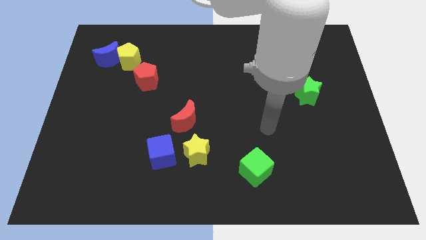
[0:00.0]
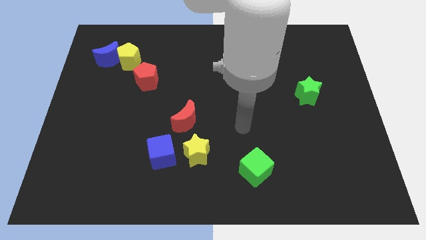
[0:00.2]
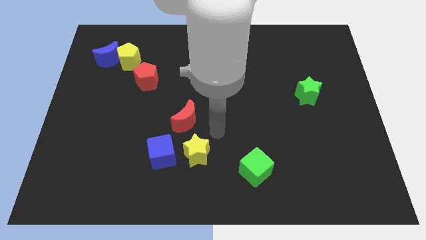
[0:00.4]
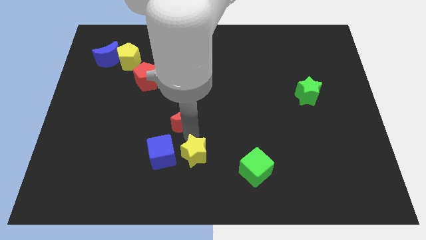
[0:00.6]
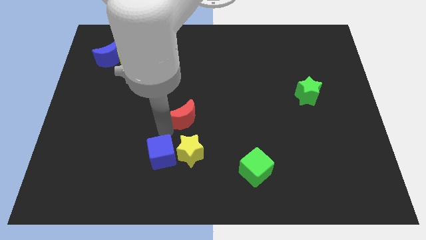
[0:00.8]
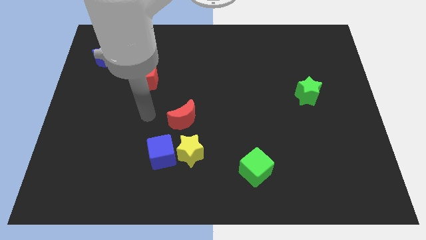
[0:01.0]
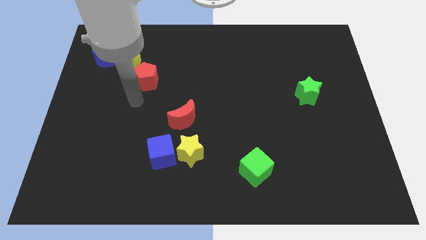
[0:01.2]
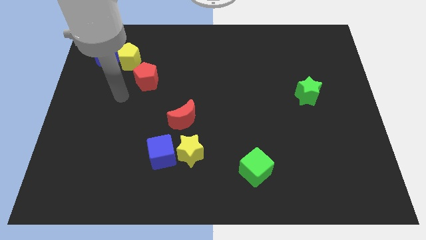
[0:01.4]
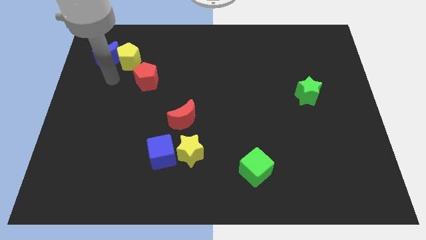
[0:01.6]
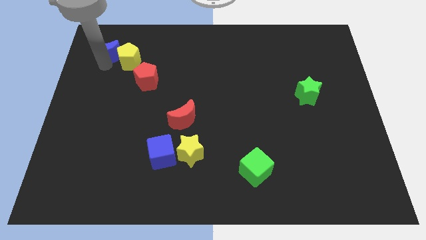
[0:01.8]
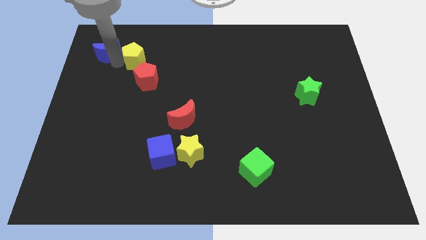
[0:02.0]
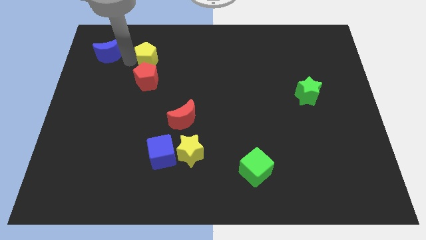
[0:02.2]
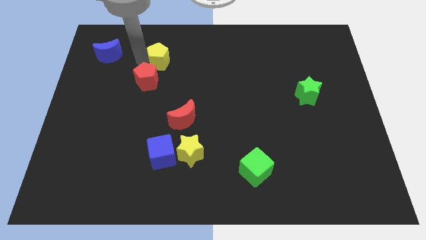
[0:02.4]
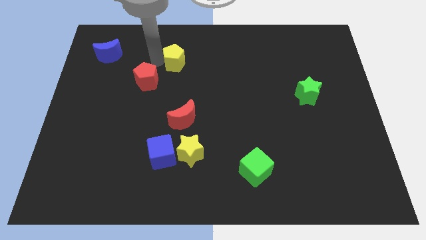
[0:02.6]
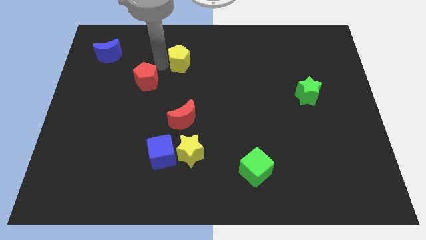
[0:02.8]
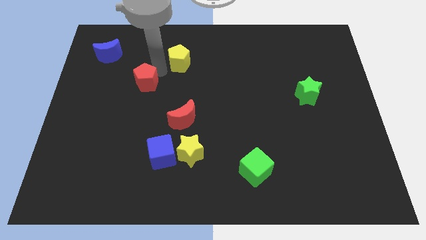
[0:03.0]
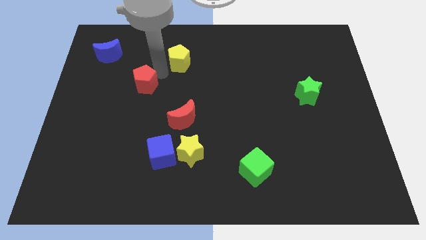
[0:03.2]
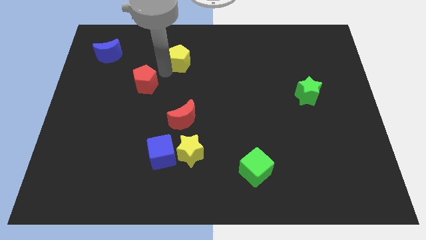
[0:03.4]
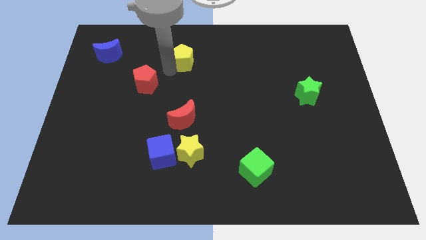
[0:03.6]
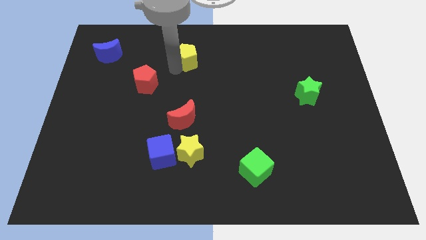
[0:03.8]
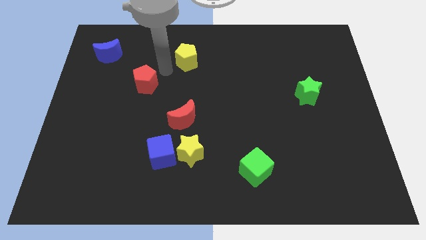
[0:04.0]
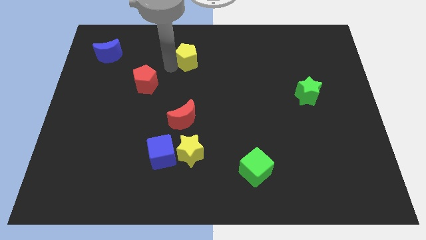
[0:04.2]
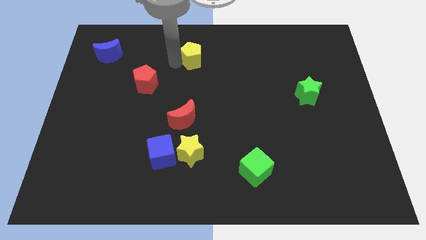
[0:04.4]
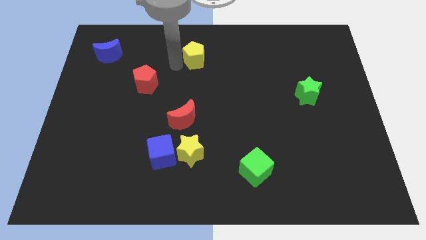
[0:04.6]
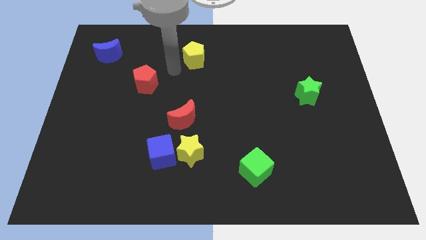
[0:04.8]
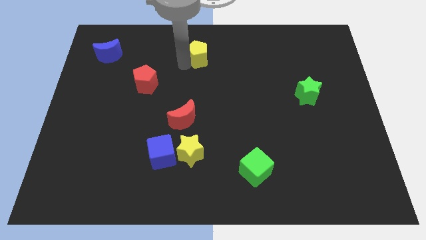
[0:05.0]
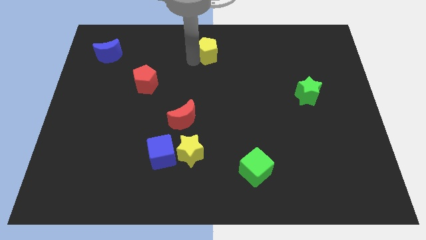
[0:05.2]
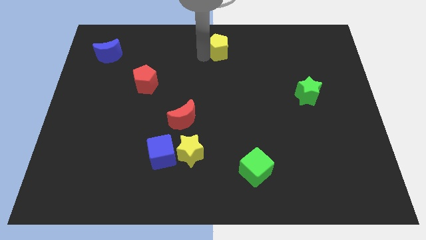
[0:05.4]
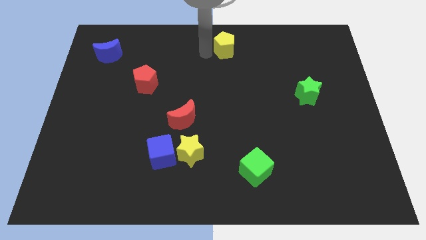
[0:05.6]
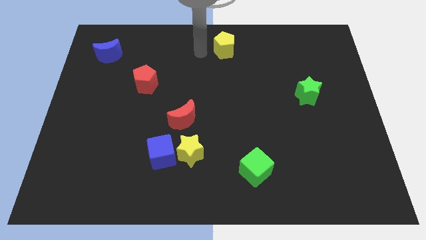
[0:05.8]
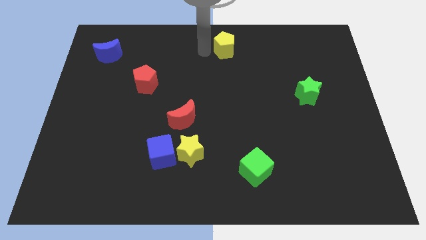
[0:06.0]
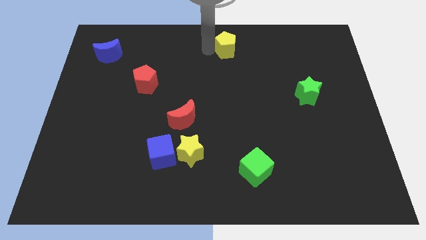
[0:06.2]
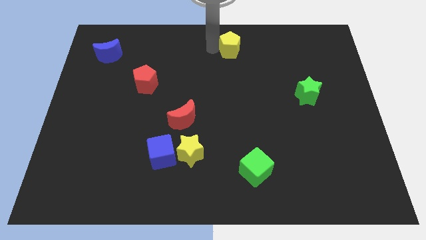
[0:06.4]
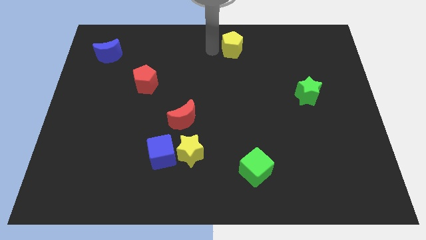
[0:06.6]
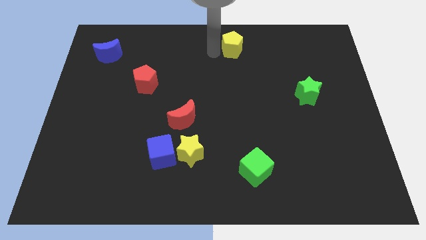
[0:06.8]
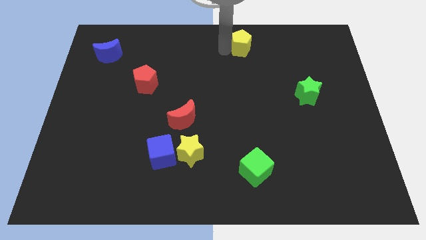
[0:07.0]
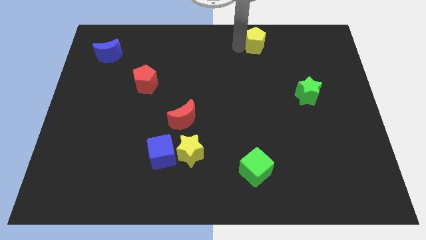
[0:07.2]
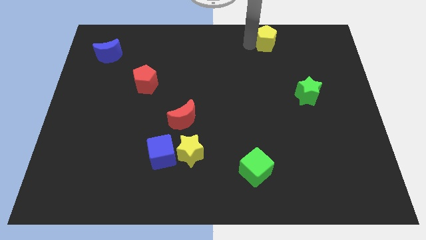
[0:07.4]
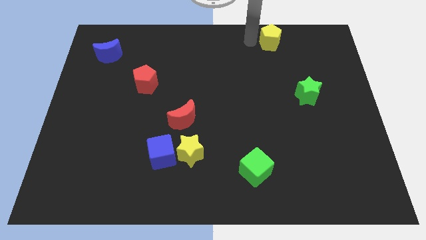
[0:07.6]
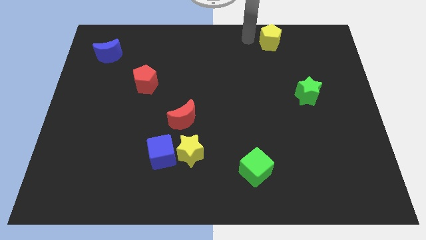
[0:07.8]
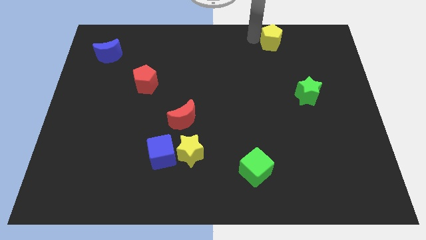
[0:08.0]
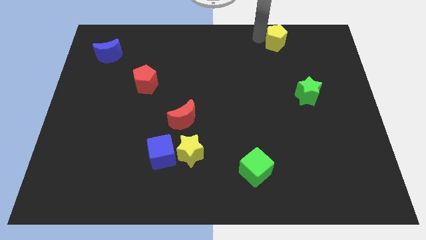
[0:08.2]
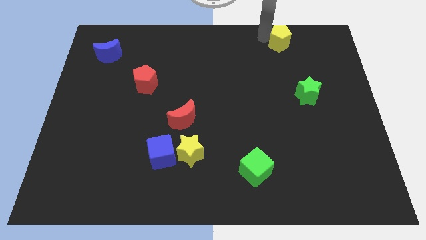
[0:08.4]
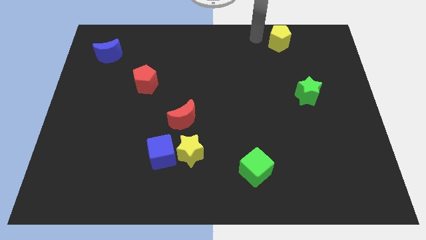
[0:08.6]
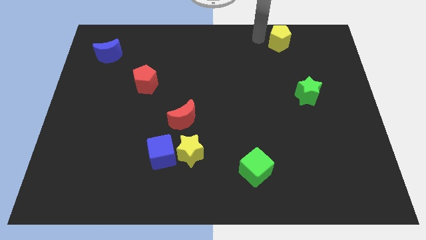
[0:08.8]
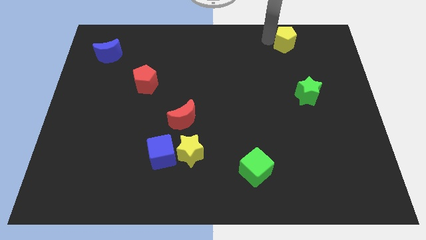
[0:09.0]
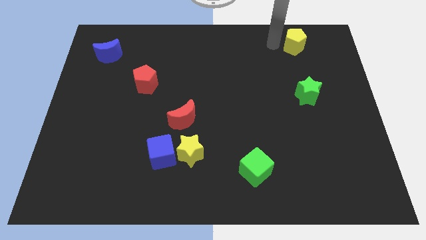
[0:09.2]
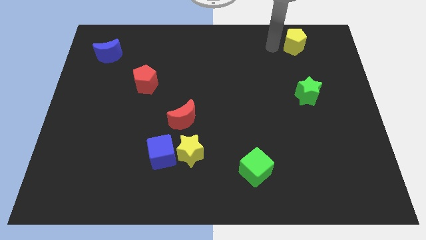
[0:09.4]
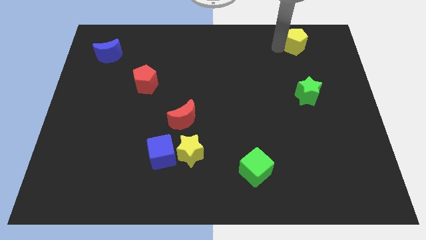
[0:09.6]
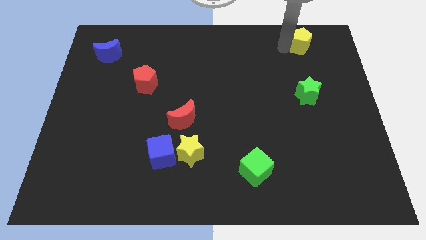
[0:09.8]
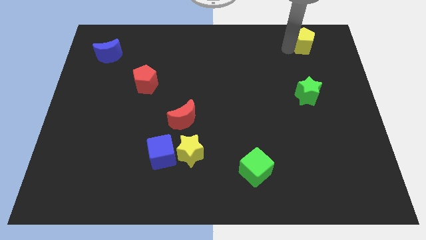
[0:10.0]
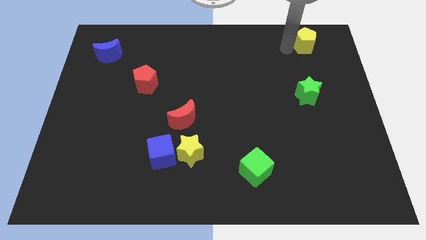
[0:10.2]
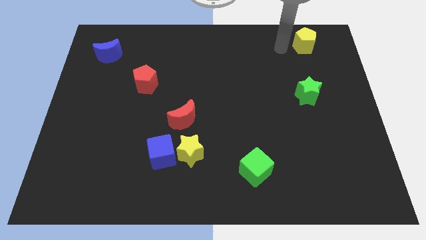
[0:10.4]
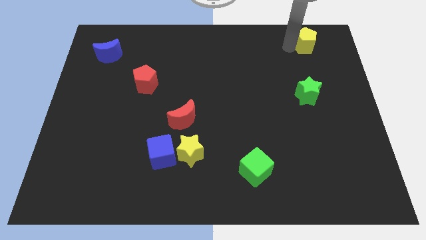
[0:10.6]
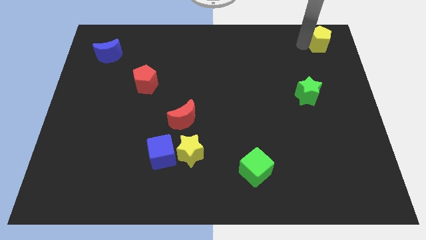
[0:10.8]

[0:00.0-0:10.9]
move the yellow pentagon to the upper right corner

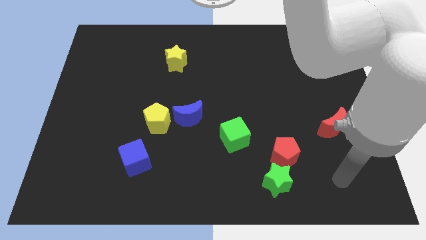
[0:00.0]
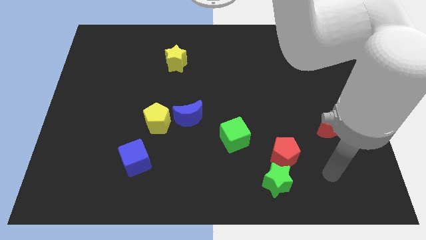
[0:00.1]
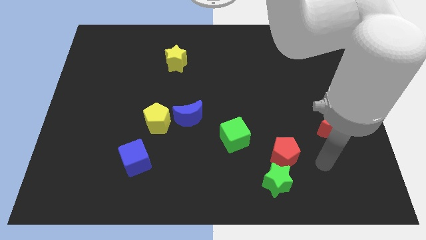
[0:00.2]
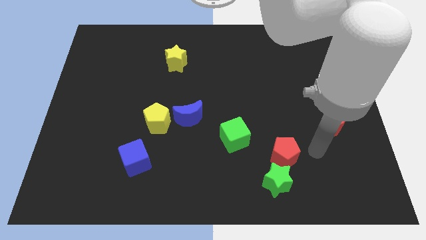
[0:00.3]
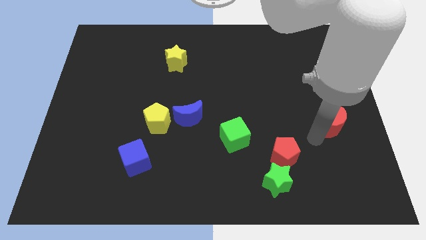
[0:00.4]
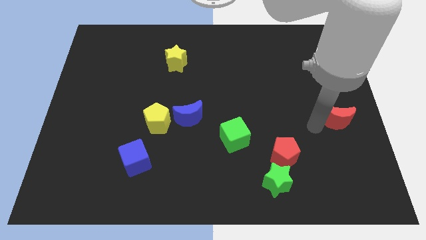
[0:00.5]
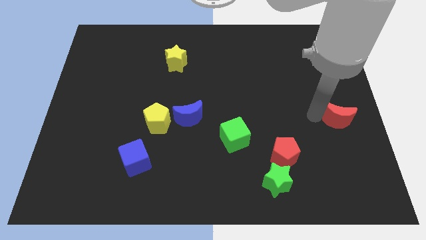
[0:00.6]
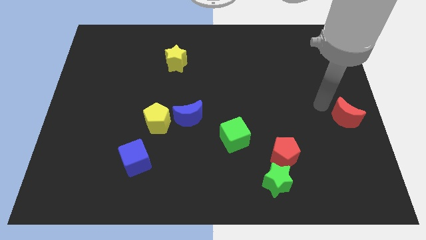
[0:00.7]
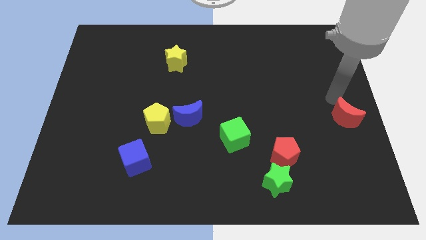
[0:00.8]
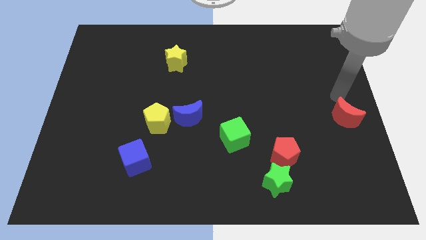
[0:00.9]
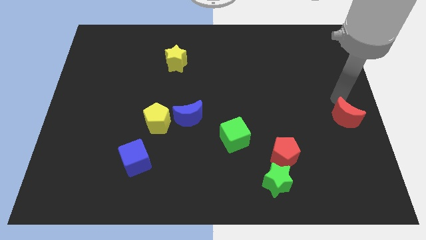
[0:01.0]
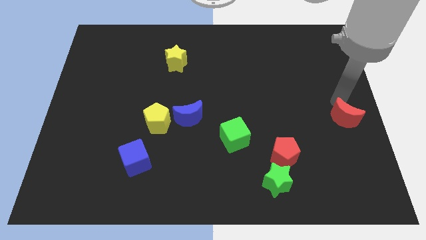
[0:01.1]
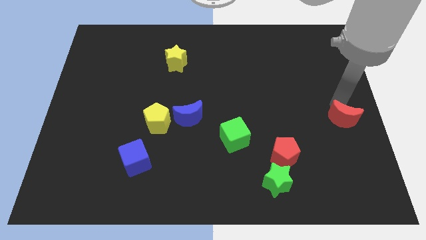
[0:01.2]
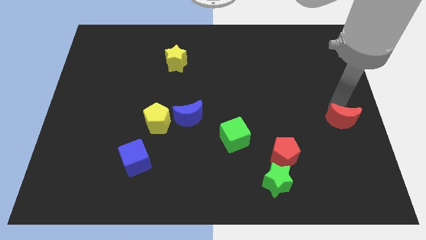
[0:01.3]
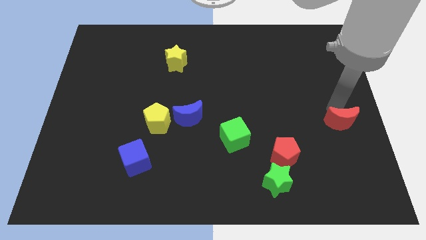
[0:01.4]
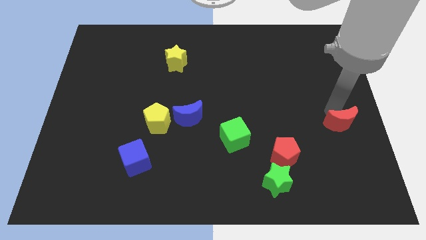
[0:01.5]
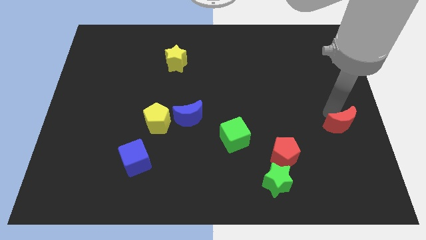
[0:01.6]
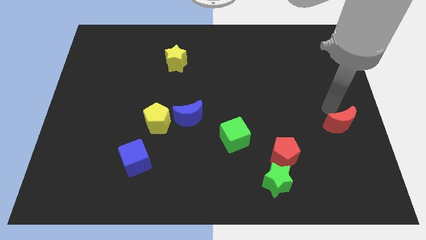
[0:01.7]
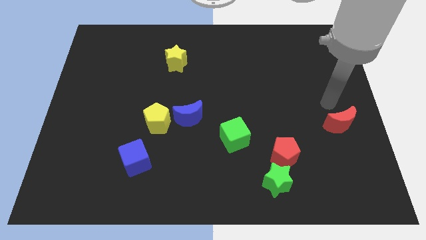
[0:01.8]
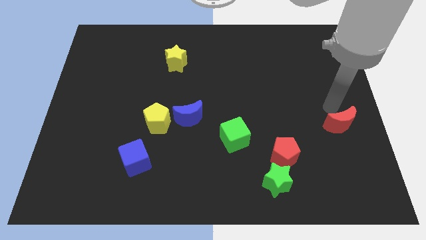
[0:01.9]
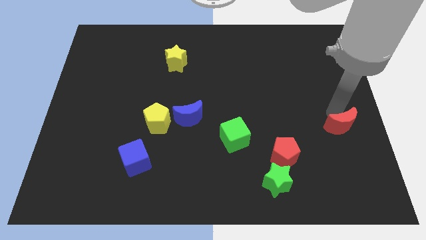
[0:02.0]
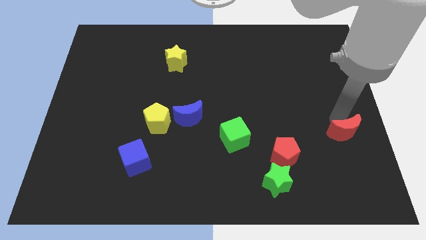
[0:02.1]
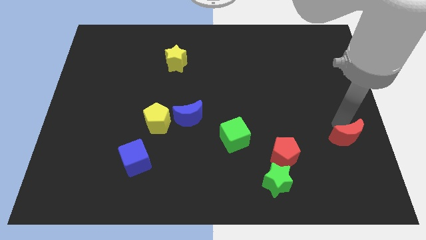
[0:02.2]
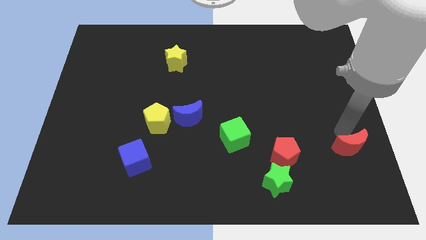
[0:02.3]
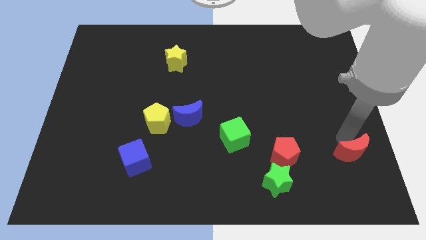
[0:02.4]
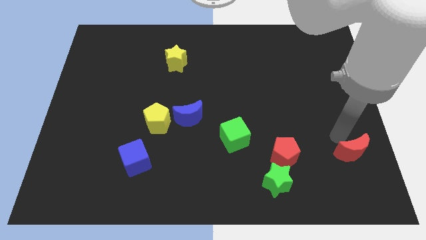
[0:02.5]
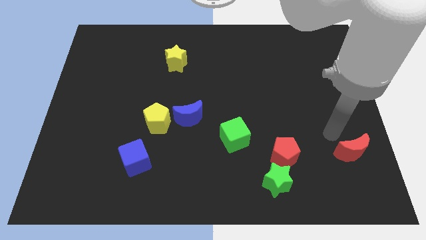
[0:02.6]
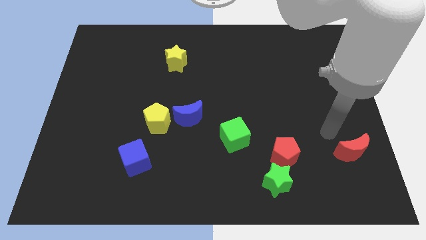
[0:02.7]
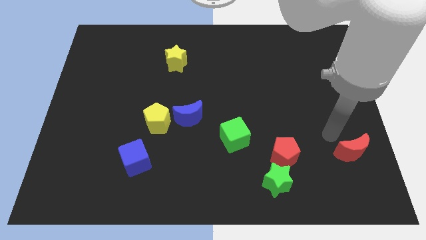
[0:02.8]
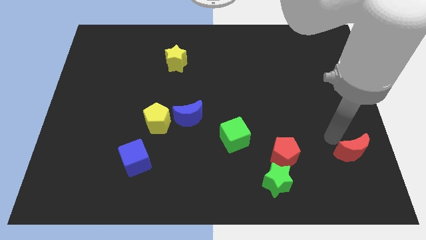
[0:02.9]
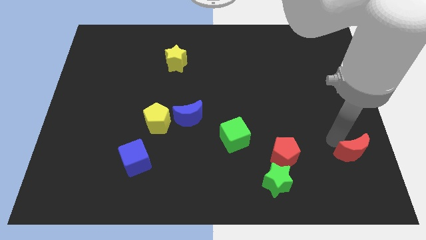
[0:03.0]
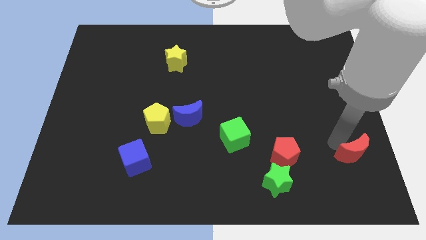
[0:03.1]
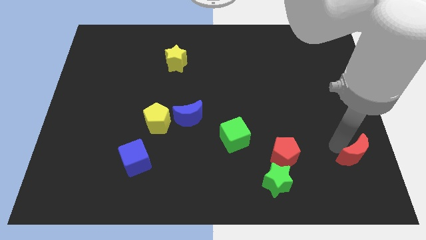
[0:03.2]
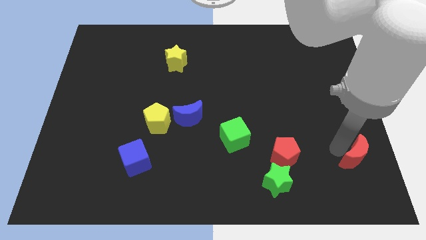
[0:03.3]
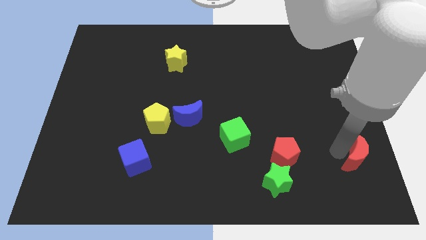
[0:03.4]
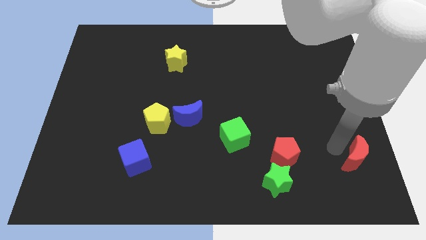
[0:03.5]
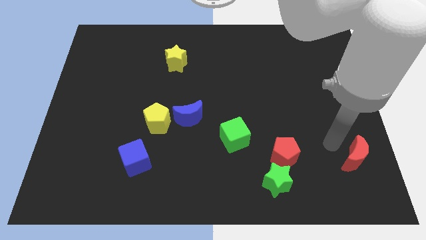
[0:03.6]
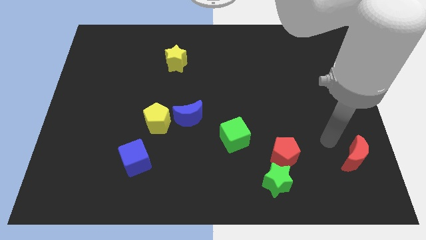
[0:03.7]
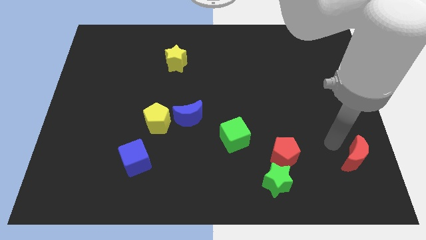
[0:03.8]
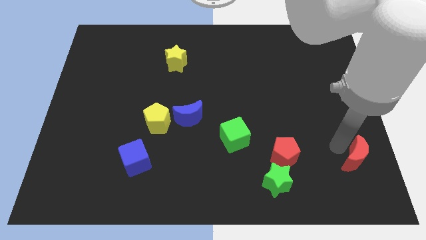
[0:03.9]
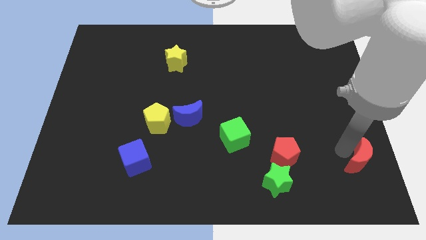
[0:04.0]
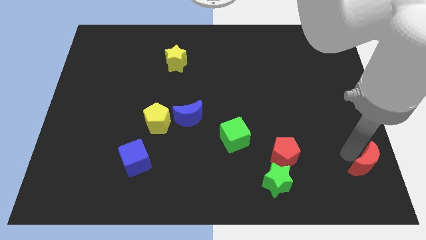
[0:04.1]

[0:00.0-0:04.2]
put the red moon to the bottom right of the board
